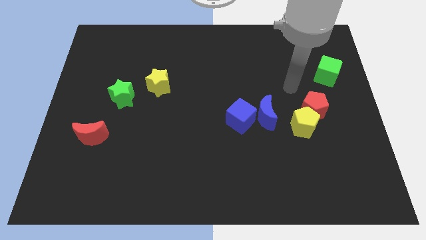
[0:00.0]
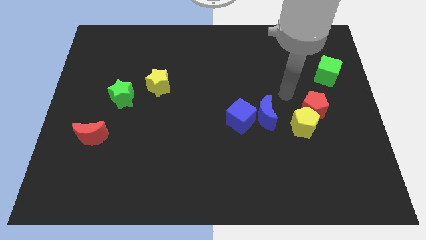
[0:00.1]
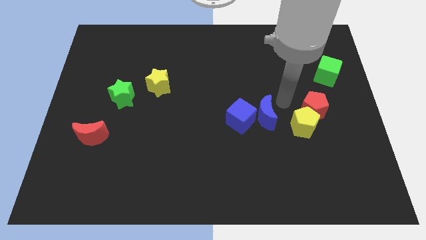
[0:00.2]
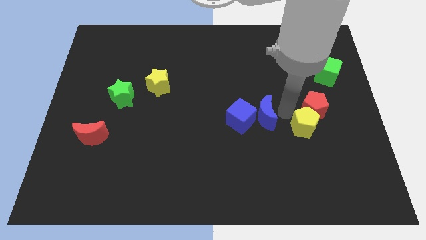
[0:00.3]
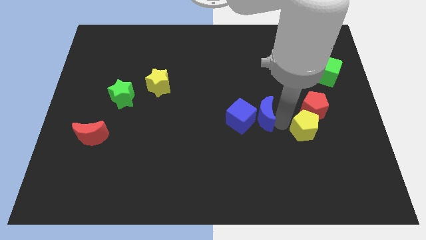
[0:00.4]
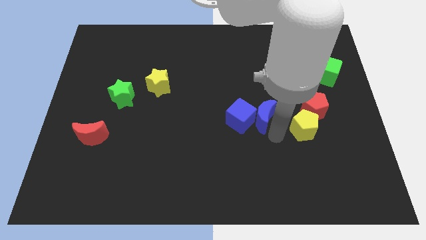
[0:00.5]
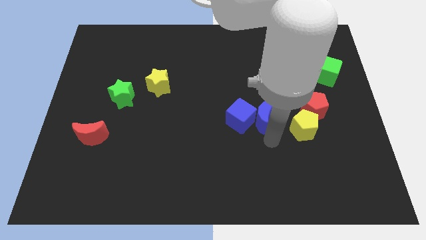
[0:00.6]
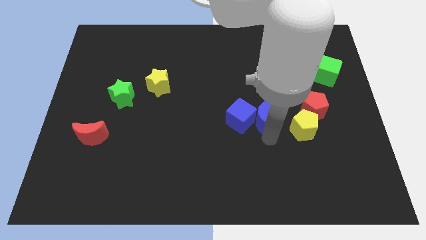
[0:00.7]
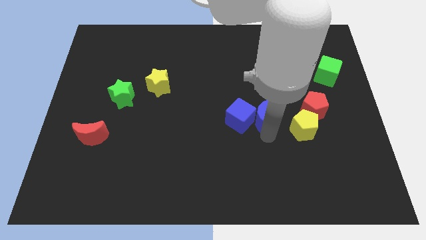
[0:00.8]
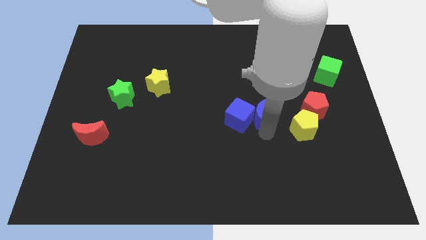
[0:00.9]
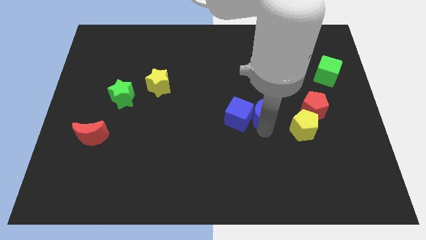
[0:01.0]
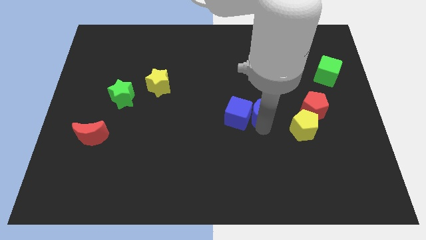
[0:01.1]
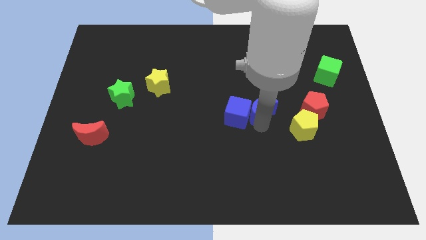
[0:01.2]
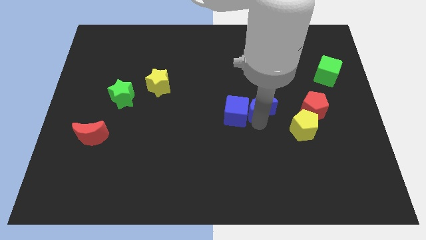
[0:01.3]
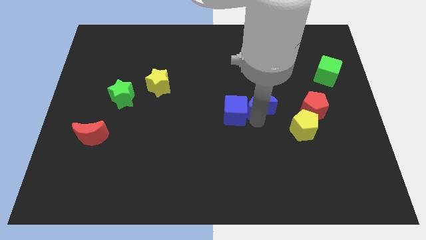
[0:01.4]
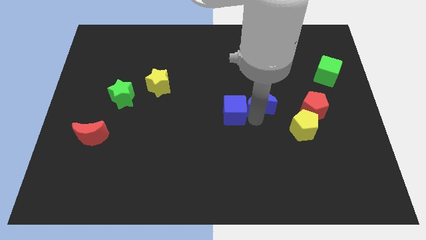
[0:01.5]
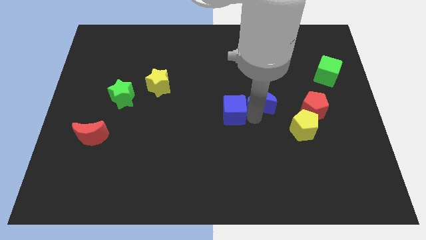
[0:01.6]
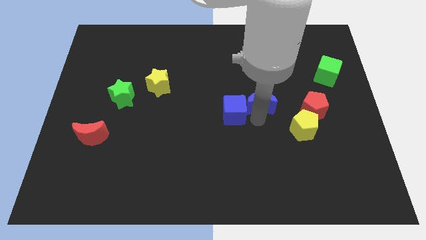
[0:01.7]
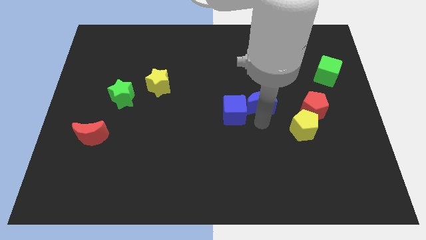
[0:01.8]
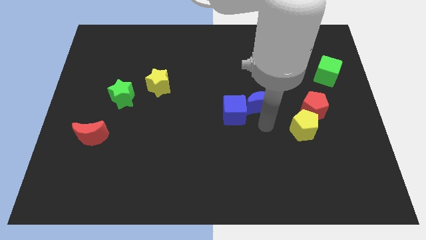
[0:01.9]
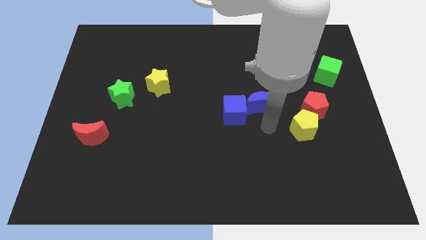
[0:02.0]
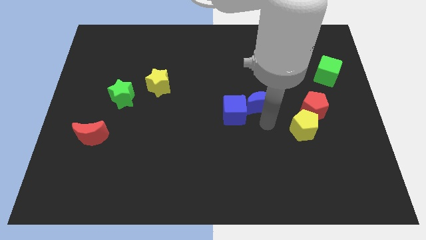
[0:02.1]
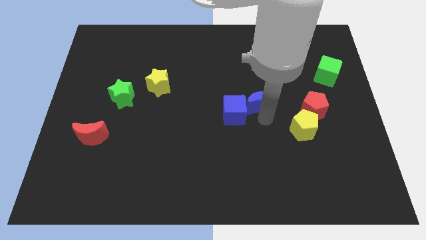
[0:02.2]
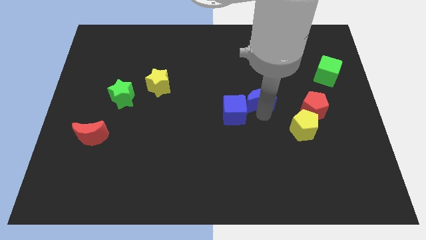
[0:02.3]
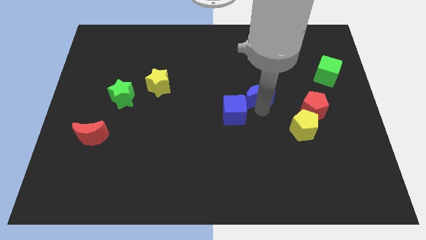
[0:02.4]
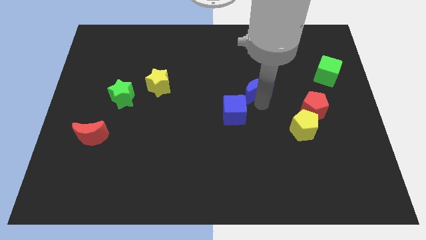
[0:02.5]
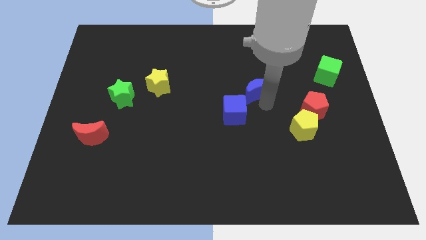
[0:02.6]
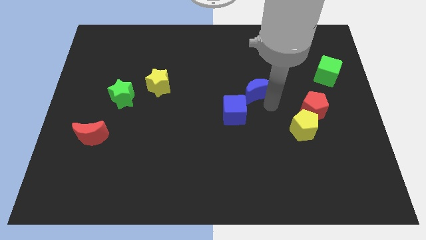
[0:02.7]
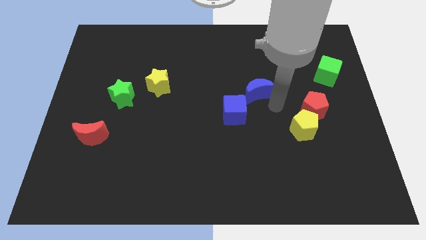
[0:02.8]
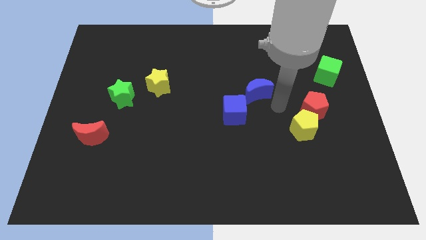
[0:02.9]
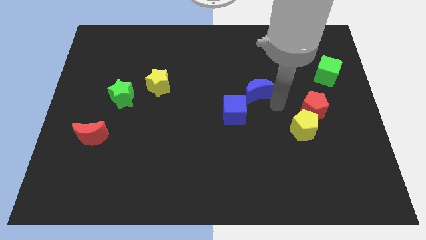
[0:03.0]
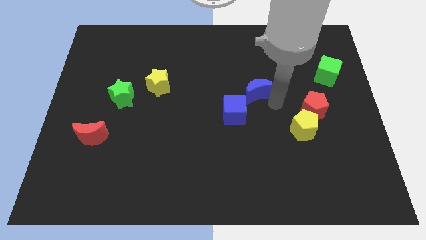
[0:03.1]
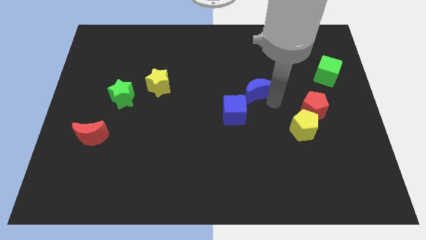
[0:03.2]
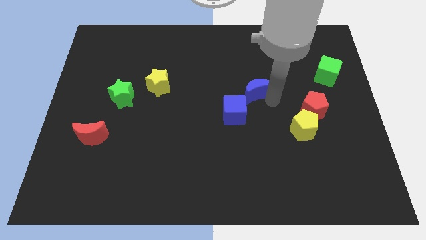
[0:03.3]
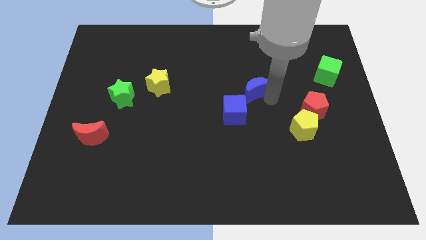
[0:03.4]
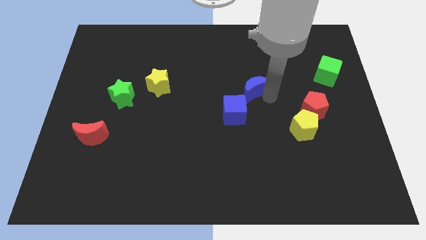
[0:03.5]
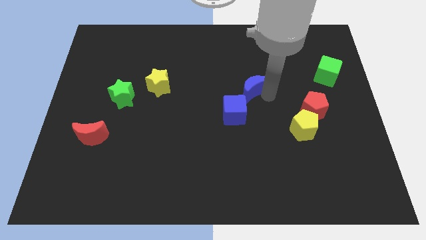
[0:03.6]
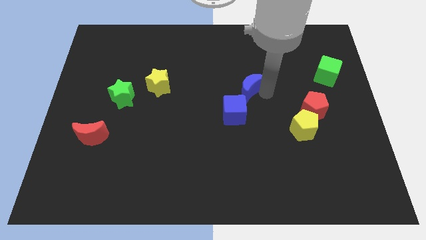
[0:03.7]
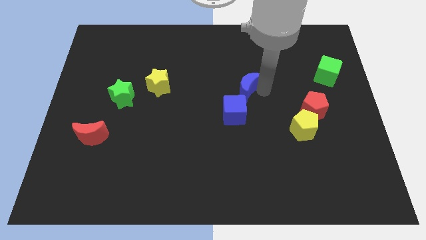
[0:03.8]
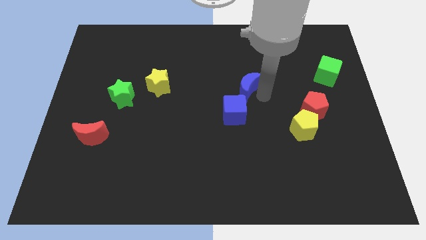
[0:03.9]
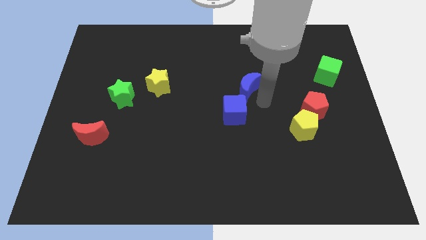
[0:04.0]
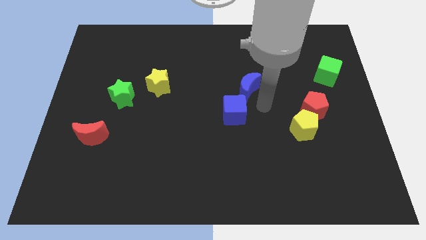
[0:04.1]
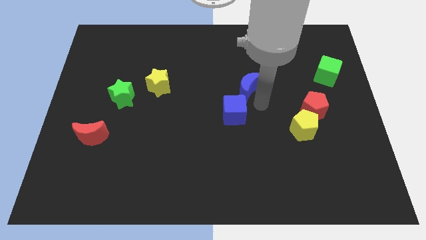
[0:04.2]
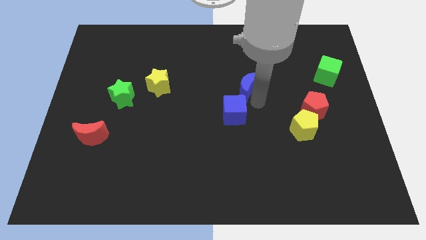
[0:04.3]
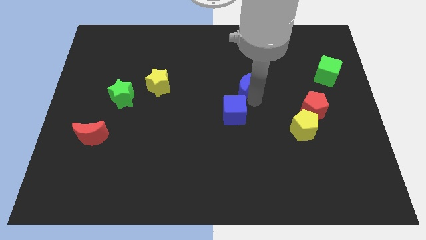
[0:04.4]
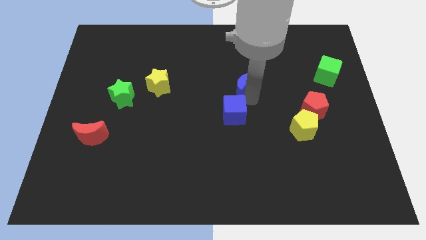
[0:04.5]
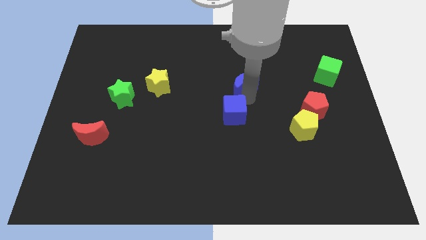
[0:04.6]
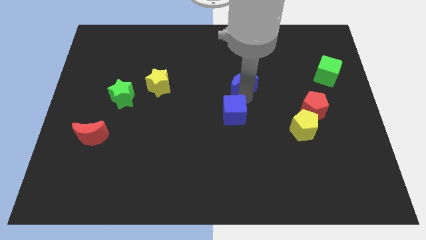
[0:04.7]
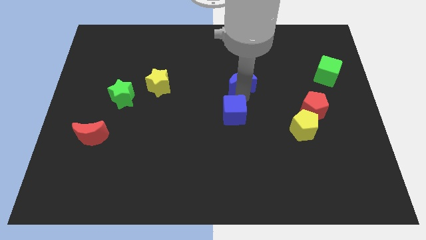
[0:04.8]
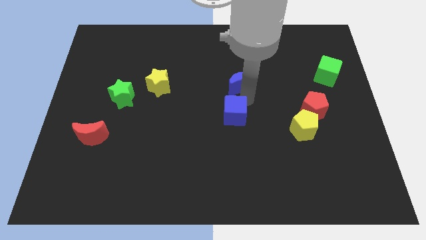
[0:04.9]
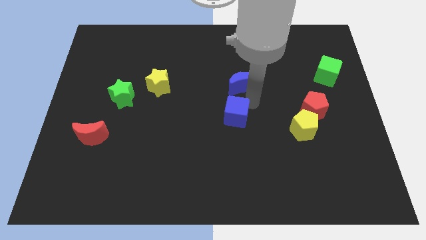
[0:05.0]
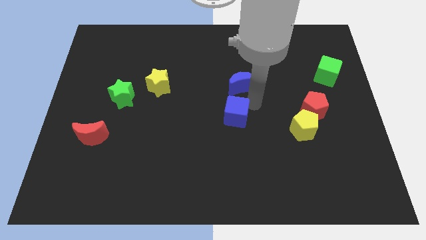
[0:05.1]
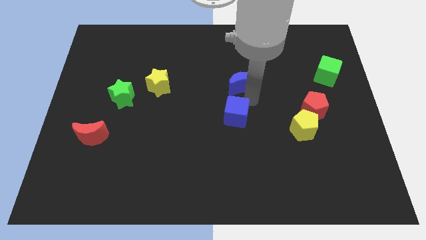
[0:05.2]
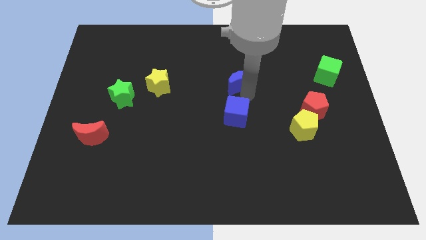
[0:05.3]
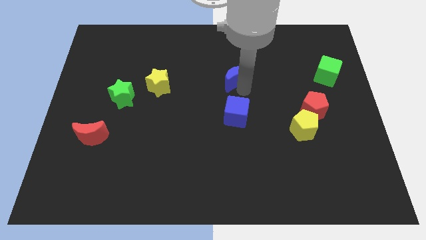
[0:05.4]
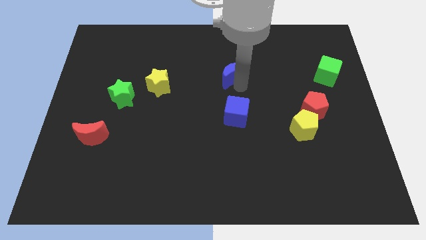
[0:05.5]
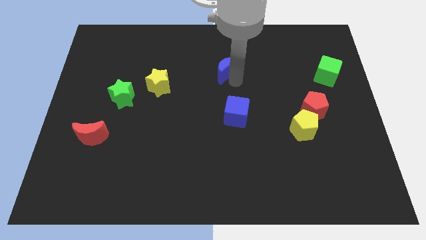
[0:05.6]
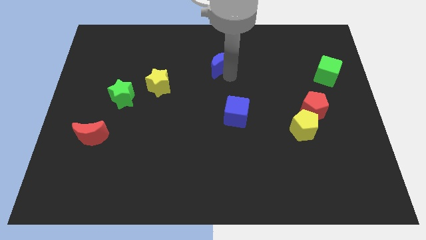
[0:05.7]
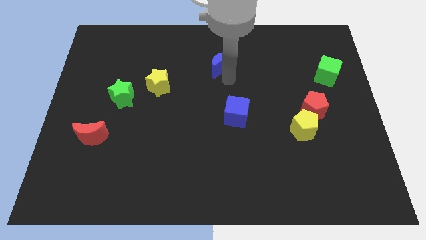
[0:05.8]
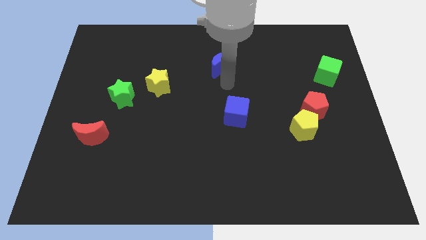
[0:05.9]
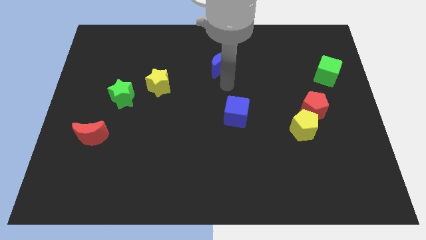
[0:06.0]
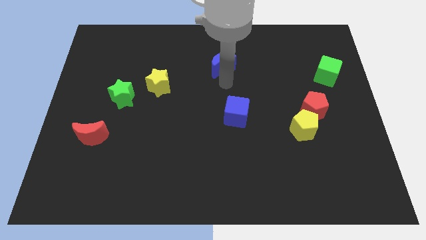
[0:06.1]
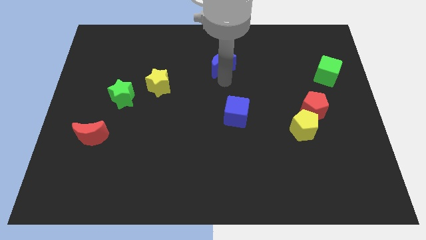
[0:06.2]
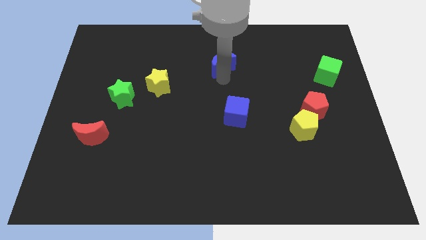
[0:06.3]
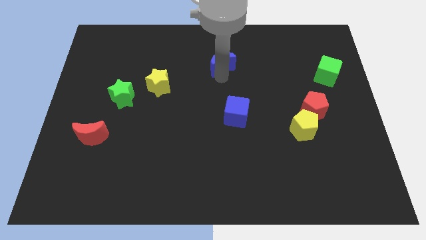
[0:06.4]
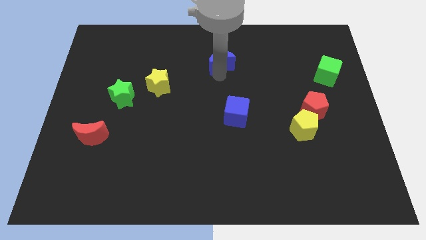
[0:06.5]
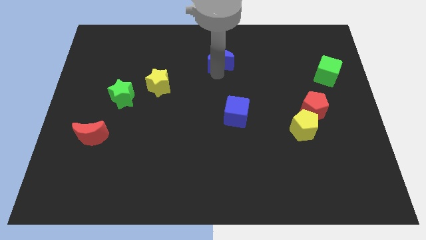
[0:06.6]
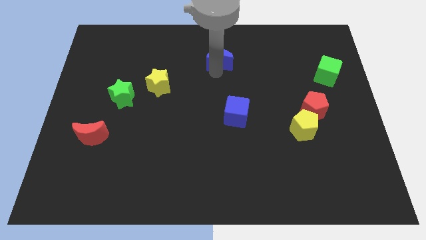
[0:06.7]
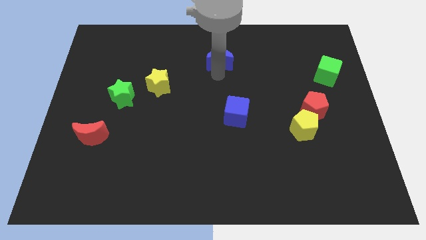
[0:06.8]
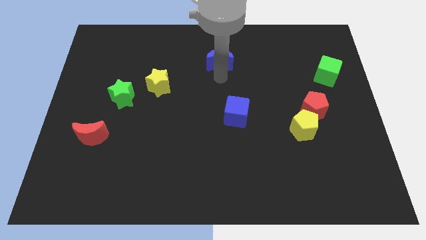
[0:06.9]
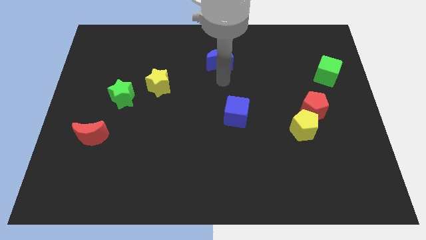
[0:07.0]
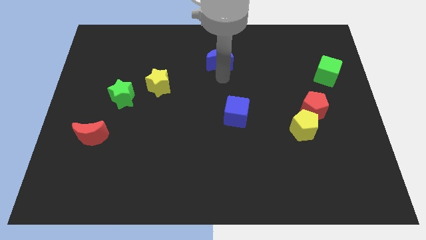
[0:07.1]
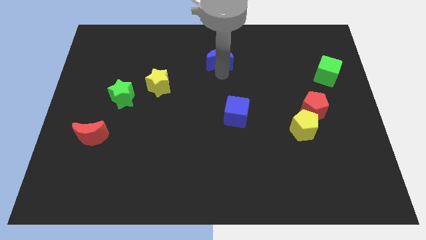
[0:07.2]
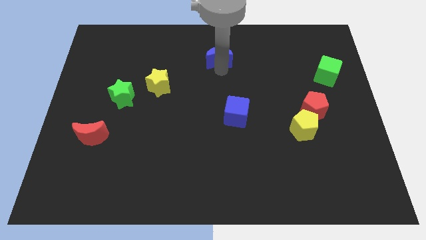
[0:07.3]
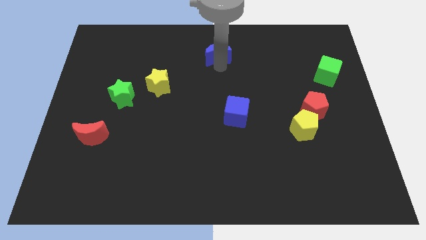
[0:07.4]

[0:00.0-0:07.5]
put the blue moon to the towards your base
